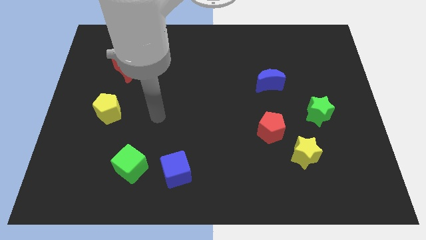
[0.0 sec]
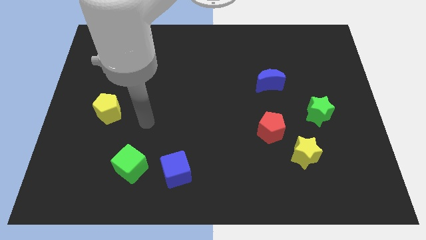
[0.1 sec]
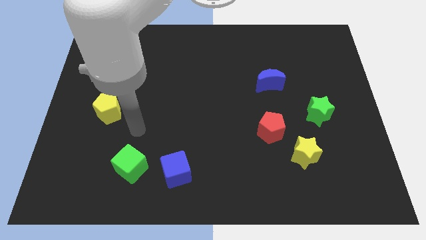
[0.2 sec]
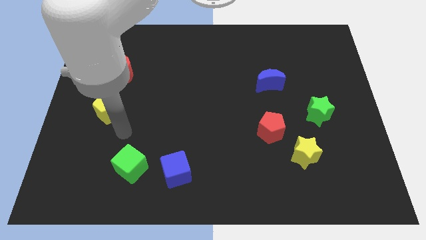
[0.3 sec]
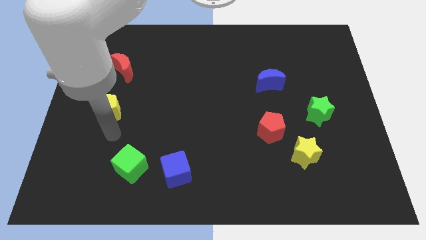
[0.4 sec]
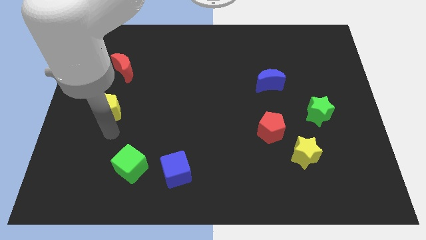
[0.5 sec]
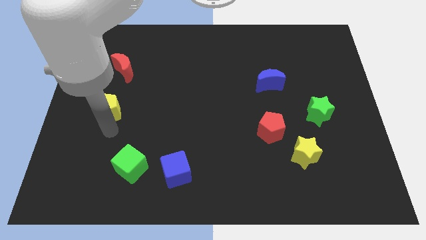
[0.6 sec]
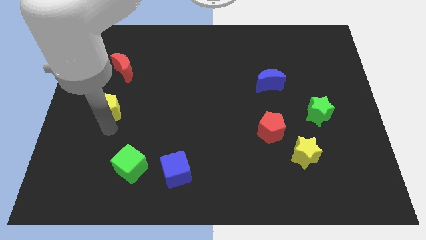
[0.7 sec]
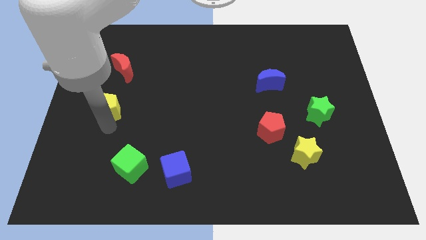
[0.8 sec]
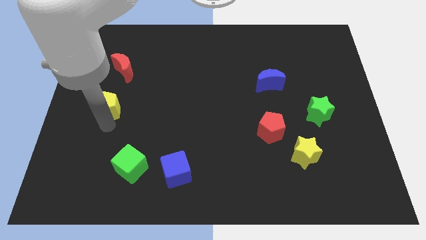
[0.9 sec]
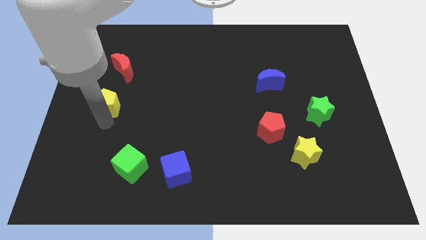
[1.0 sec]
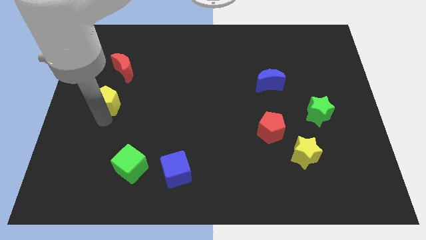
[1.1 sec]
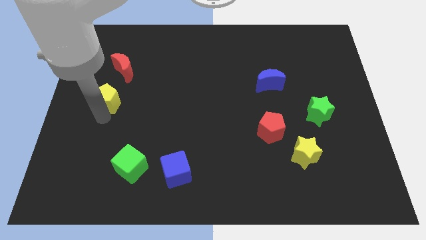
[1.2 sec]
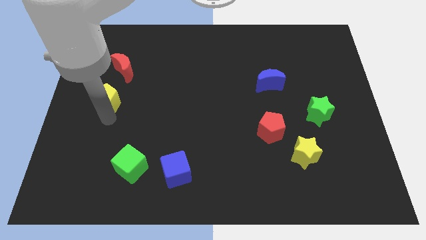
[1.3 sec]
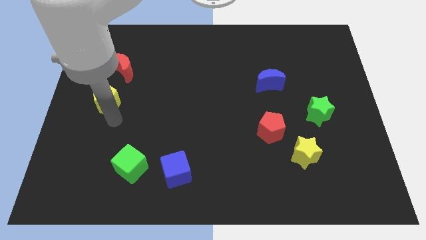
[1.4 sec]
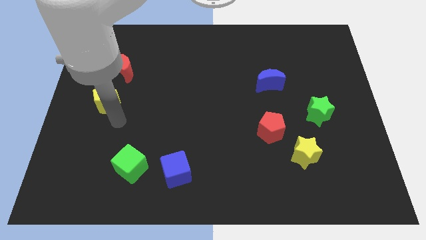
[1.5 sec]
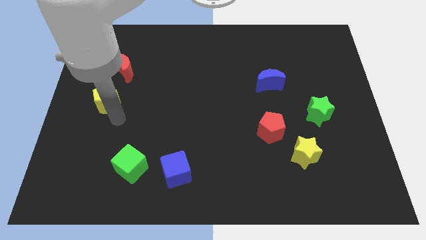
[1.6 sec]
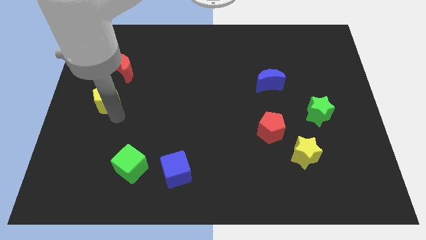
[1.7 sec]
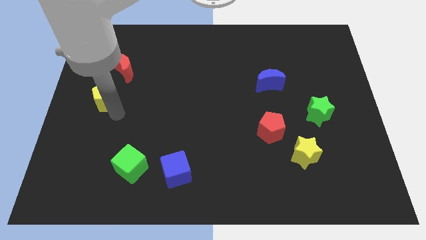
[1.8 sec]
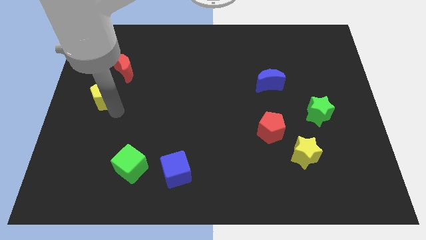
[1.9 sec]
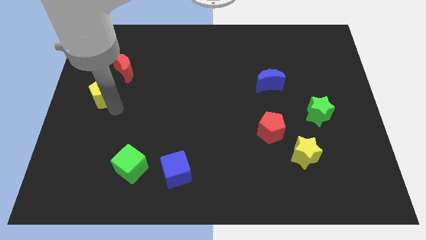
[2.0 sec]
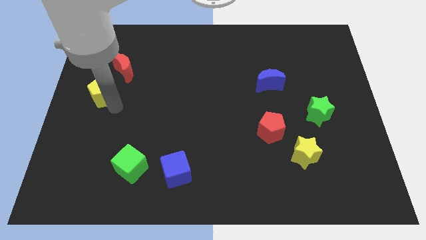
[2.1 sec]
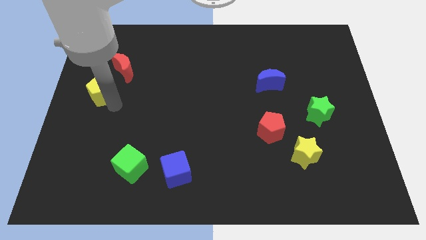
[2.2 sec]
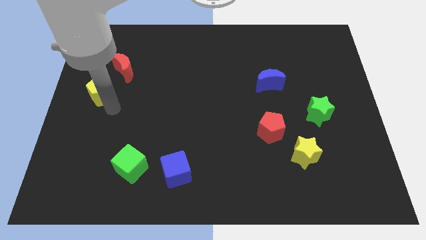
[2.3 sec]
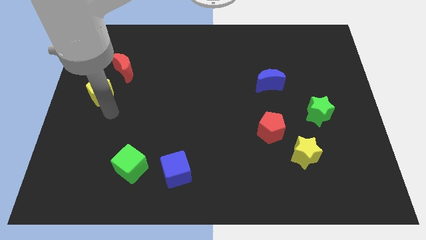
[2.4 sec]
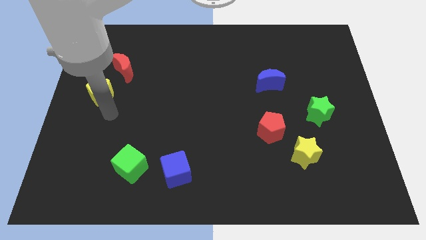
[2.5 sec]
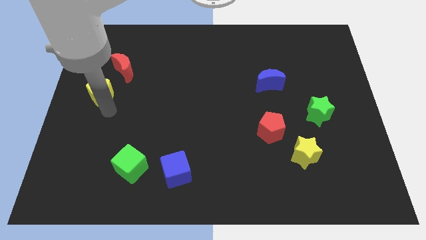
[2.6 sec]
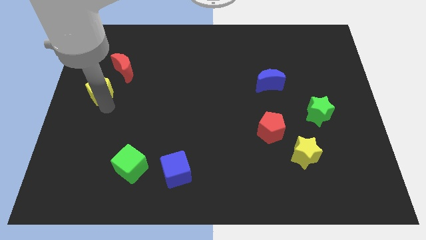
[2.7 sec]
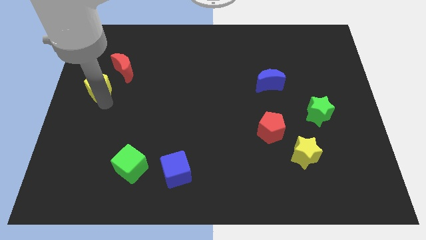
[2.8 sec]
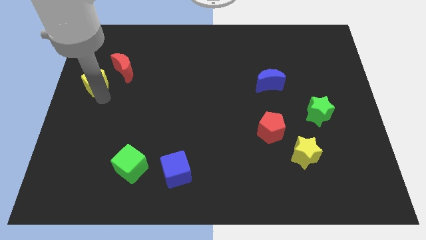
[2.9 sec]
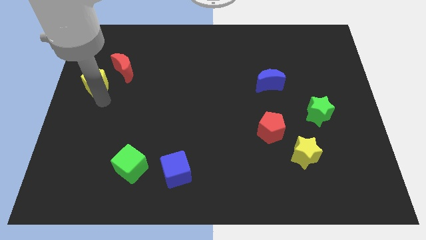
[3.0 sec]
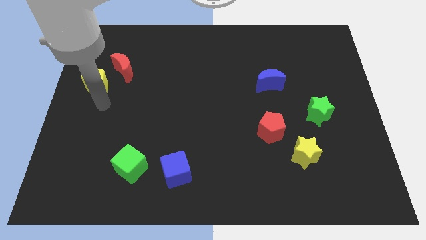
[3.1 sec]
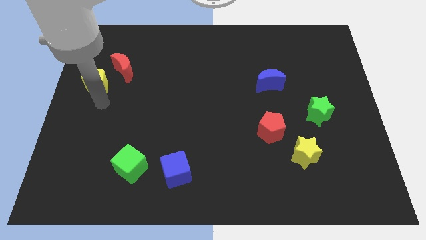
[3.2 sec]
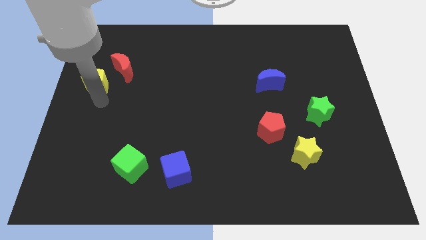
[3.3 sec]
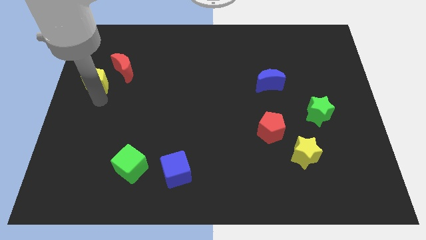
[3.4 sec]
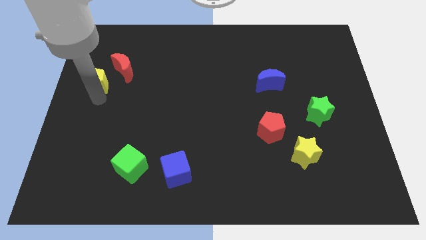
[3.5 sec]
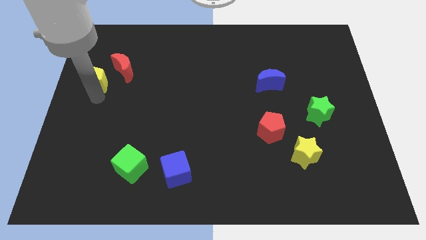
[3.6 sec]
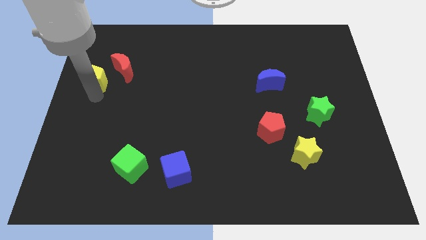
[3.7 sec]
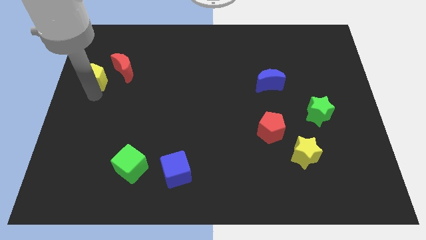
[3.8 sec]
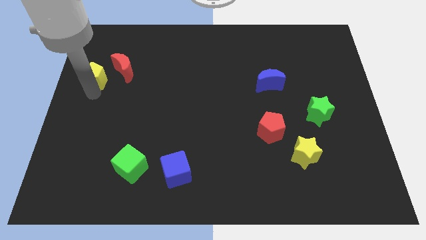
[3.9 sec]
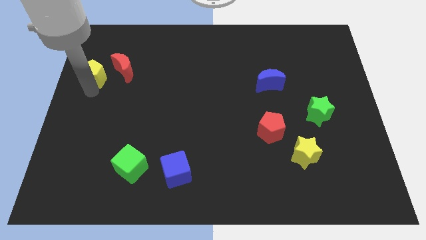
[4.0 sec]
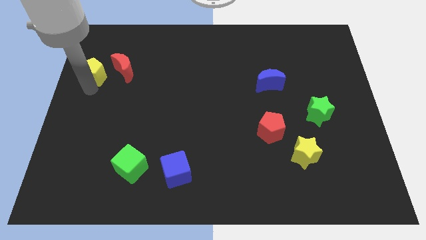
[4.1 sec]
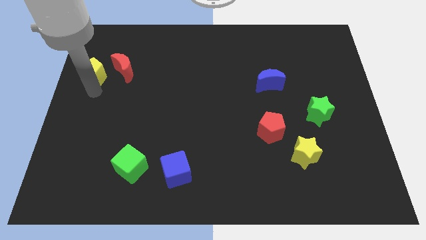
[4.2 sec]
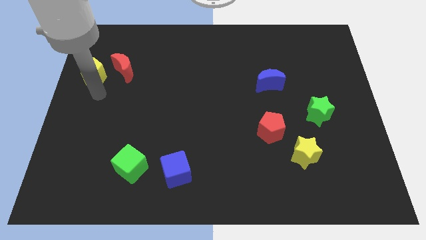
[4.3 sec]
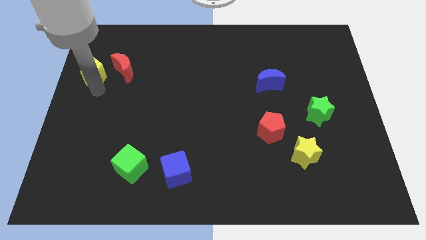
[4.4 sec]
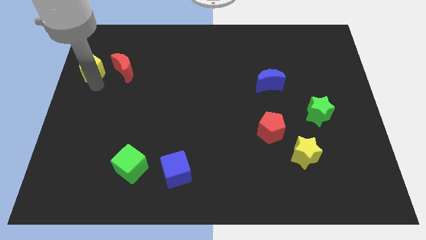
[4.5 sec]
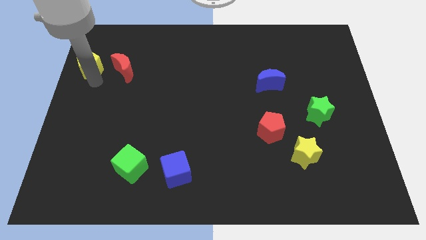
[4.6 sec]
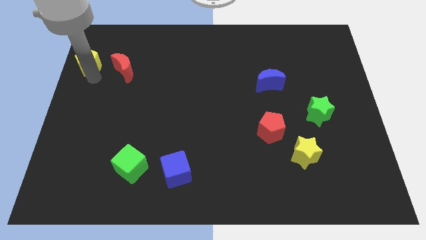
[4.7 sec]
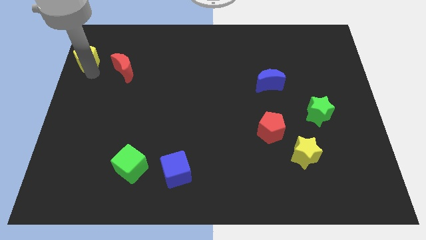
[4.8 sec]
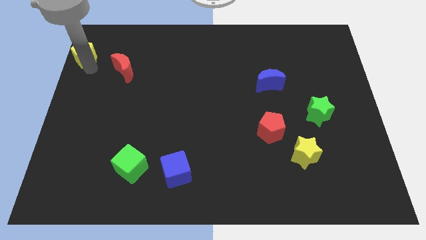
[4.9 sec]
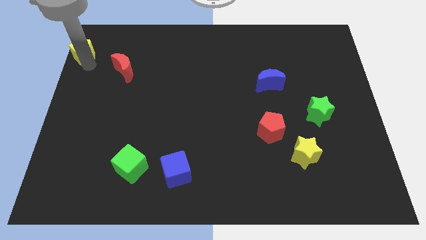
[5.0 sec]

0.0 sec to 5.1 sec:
slide the yellow pentagon to the top left of the board

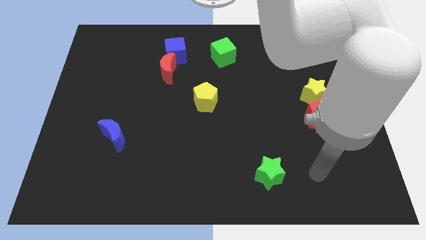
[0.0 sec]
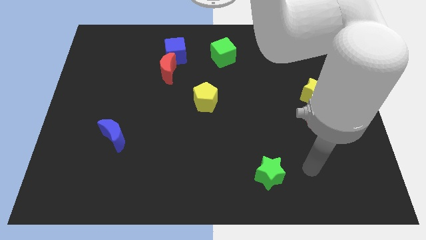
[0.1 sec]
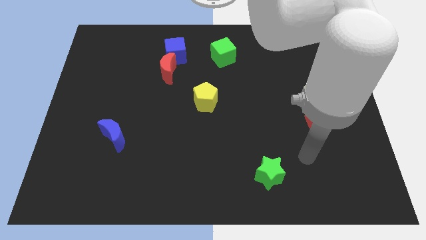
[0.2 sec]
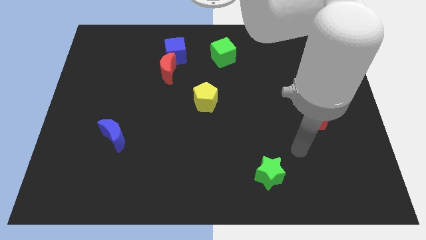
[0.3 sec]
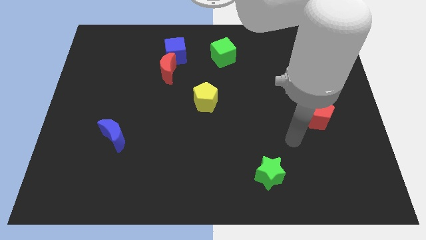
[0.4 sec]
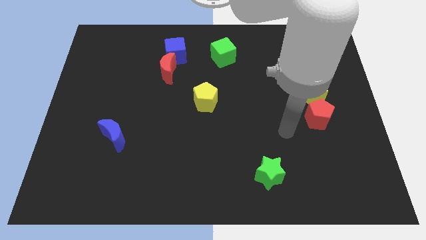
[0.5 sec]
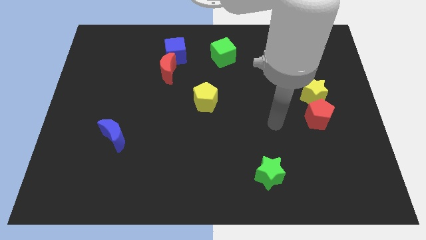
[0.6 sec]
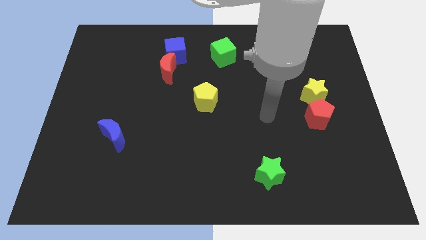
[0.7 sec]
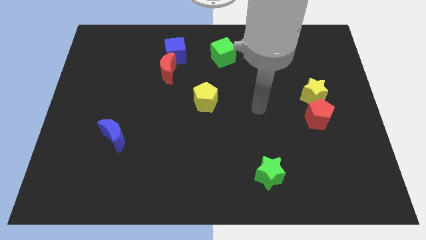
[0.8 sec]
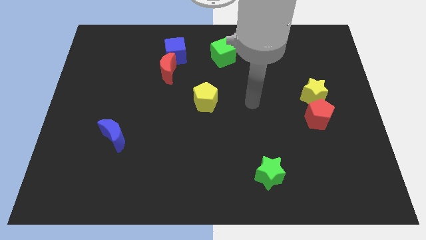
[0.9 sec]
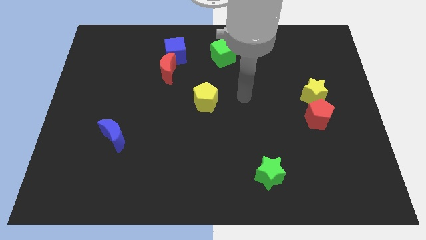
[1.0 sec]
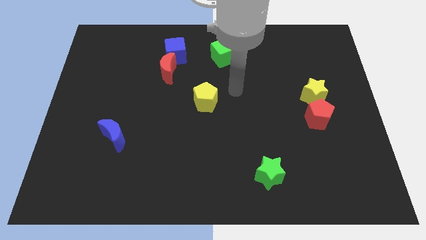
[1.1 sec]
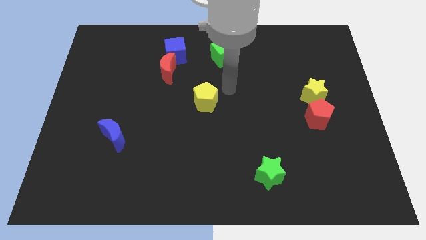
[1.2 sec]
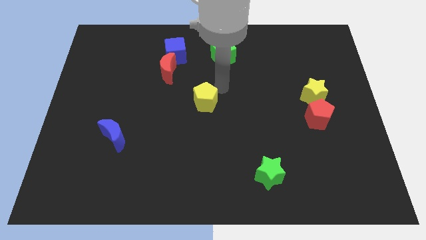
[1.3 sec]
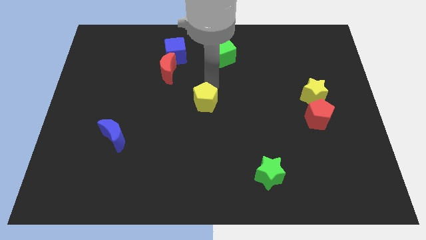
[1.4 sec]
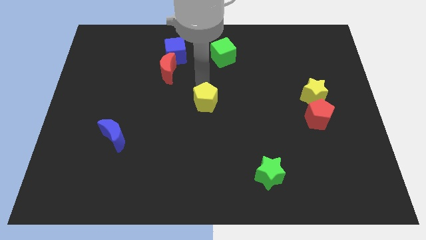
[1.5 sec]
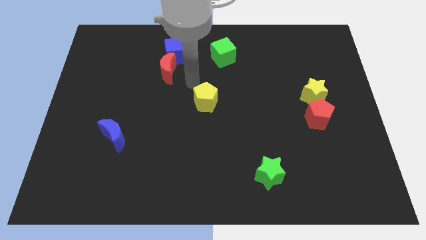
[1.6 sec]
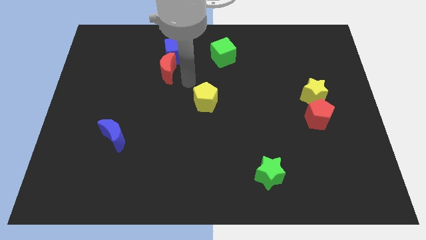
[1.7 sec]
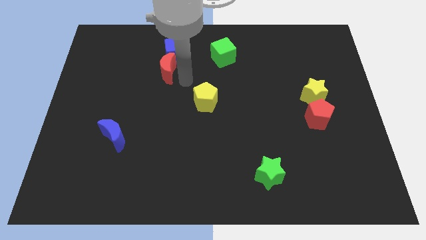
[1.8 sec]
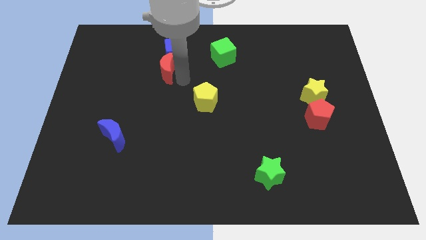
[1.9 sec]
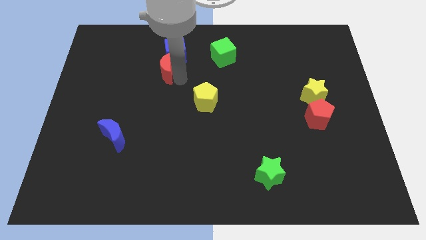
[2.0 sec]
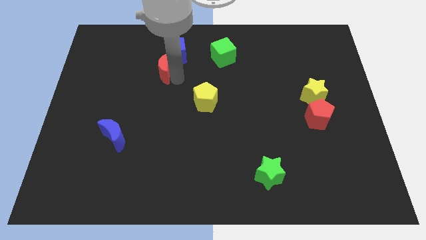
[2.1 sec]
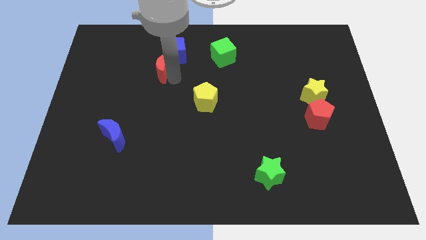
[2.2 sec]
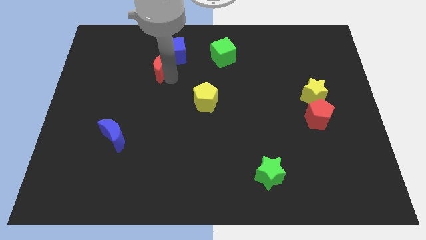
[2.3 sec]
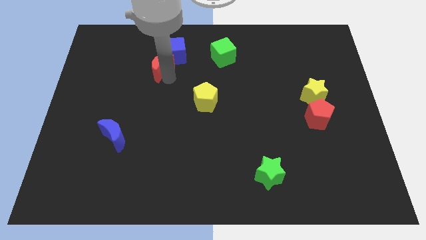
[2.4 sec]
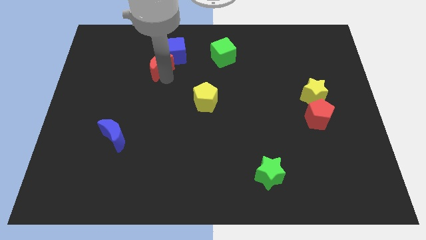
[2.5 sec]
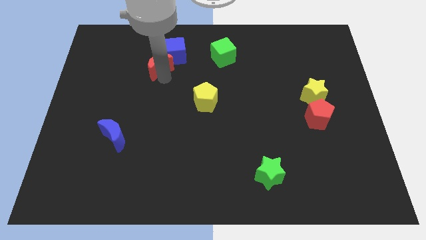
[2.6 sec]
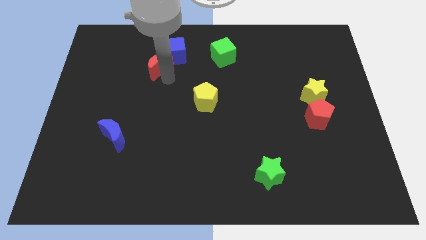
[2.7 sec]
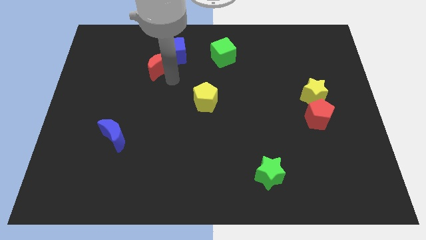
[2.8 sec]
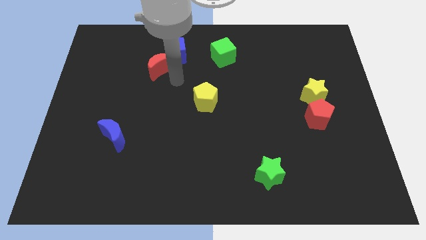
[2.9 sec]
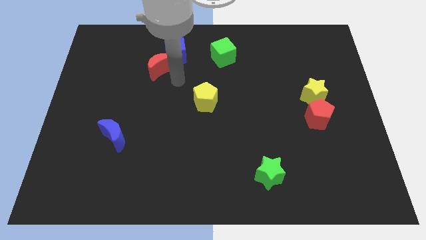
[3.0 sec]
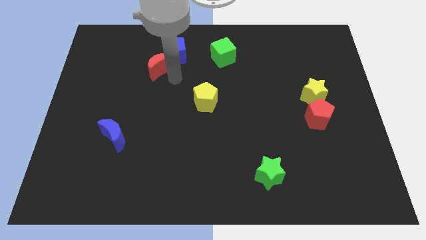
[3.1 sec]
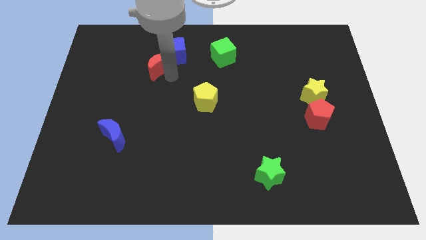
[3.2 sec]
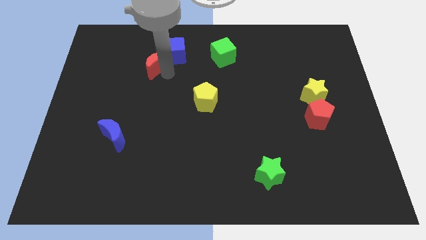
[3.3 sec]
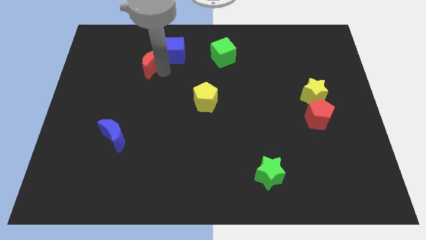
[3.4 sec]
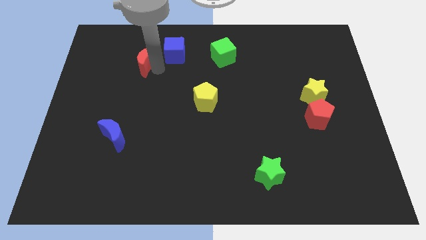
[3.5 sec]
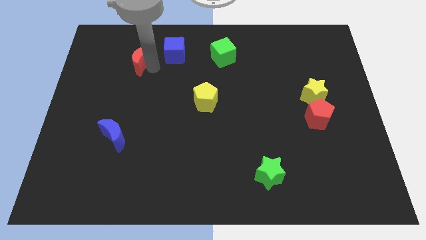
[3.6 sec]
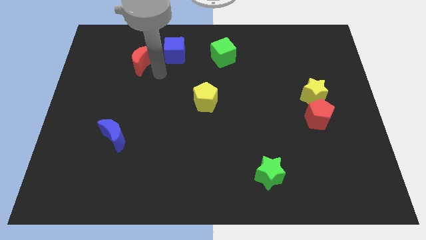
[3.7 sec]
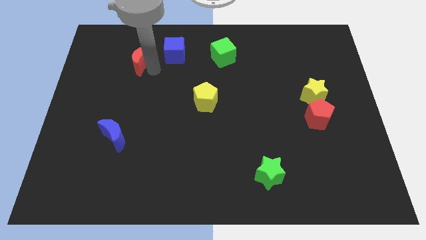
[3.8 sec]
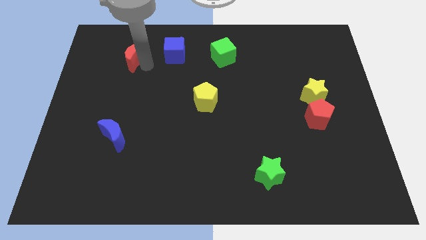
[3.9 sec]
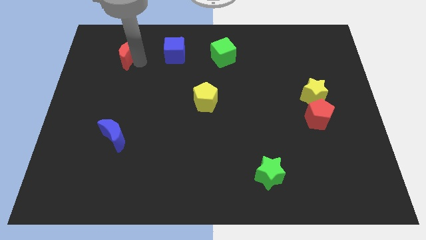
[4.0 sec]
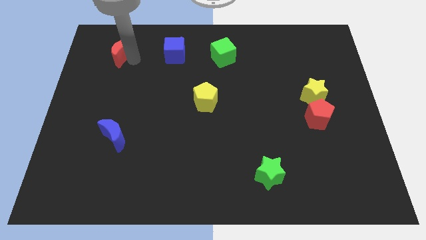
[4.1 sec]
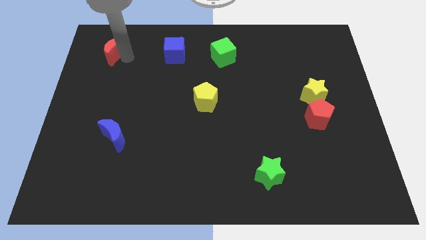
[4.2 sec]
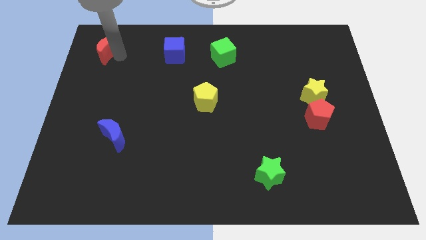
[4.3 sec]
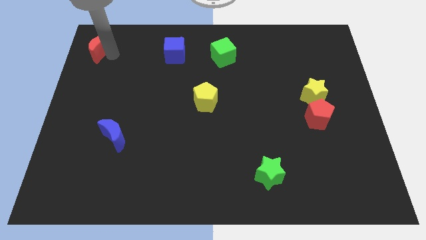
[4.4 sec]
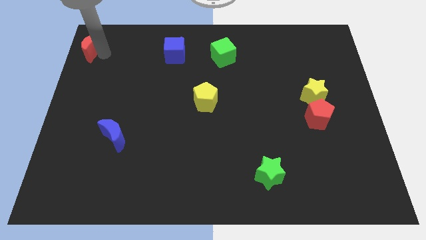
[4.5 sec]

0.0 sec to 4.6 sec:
push the red moon to the top left of the board
